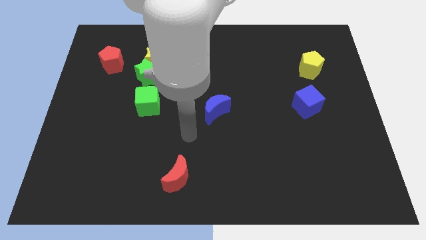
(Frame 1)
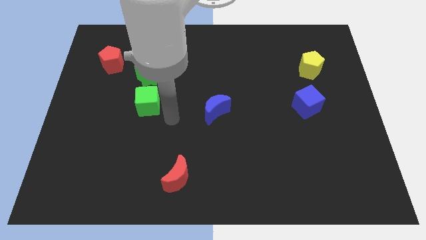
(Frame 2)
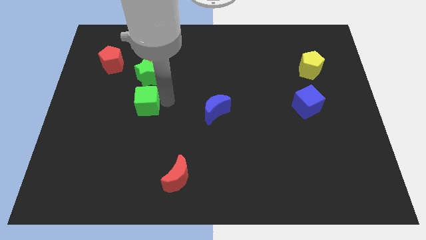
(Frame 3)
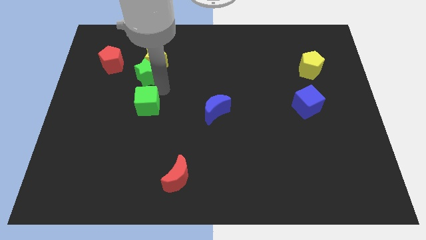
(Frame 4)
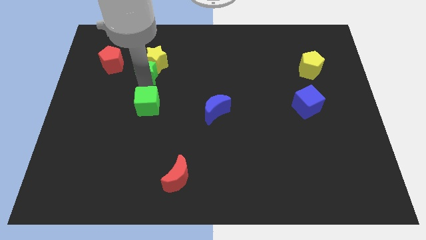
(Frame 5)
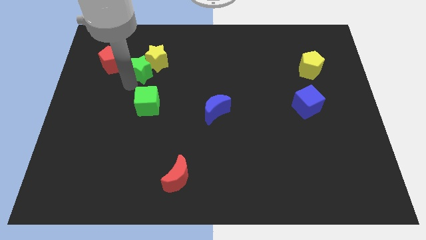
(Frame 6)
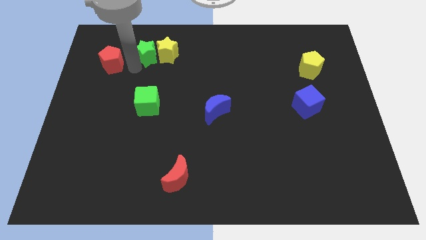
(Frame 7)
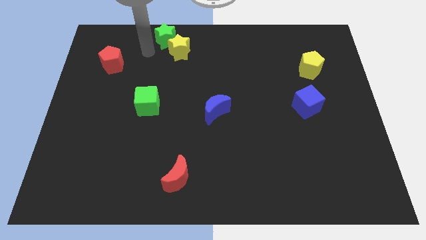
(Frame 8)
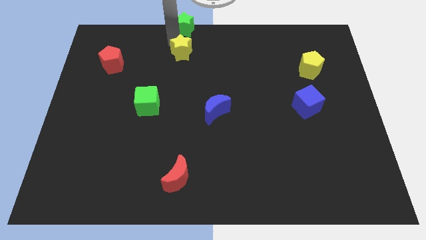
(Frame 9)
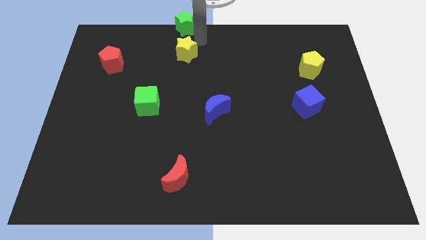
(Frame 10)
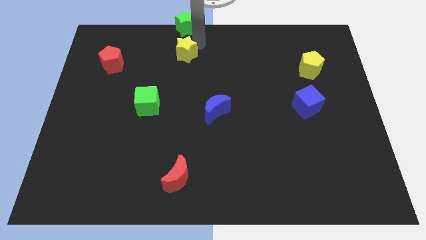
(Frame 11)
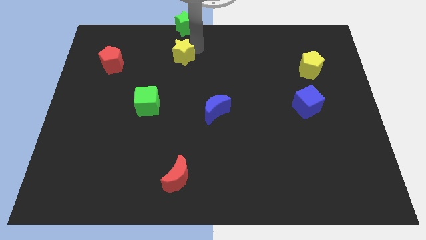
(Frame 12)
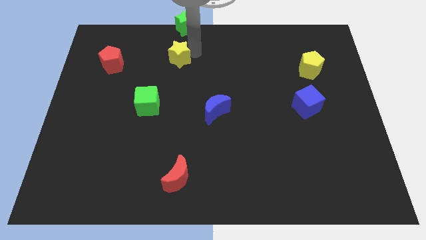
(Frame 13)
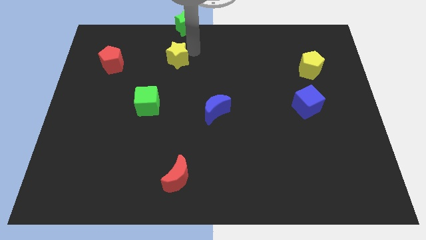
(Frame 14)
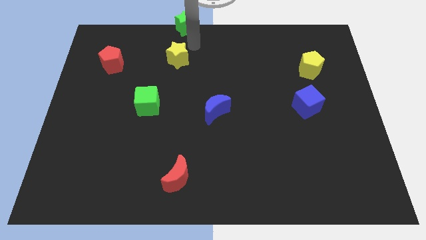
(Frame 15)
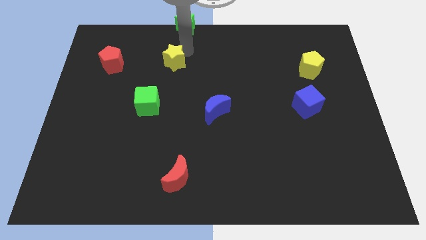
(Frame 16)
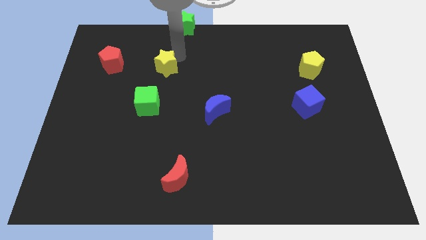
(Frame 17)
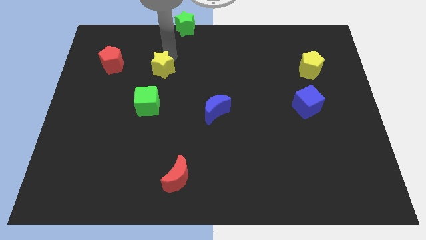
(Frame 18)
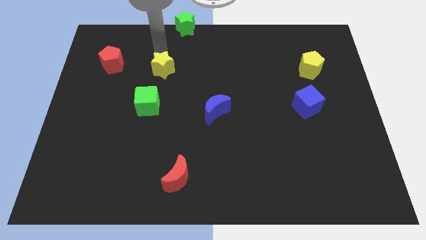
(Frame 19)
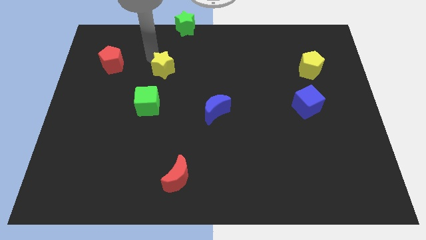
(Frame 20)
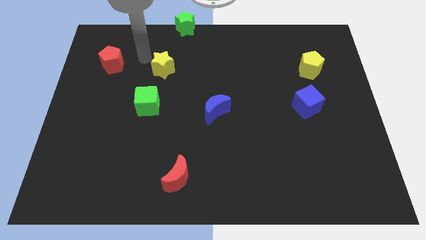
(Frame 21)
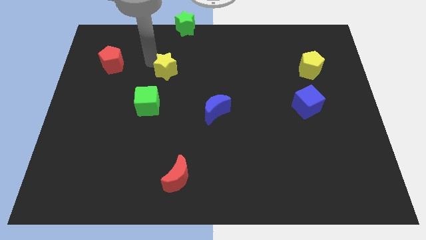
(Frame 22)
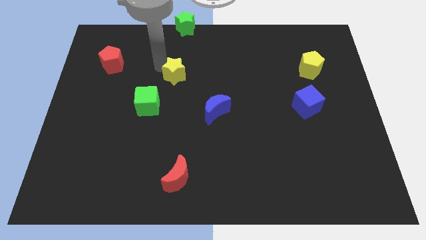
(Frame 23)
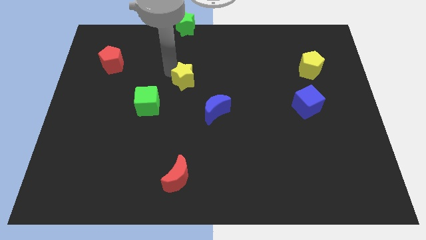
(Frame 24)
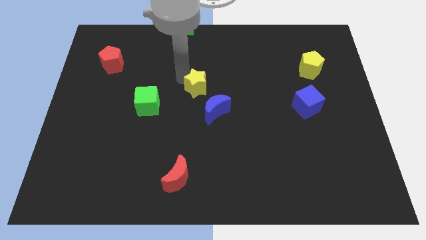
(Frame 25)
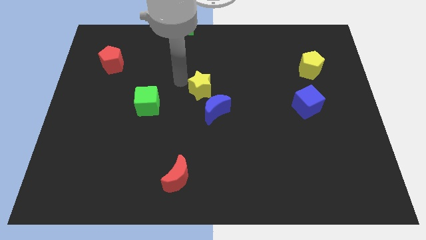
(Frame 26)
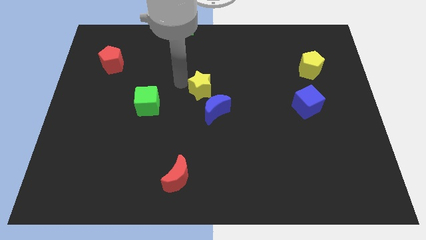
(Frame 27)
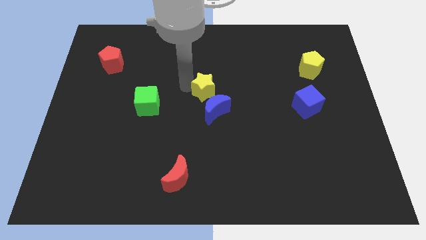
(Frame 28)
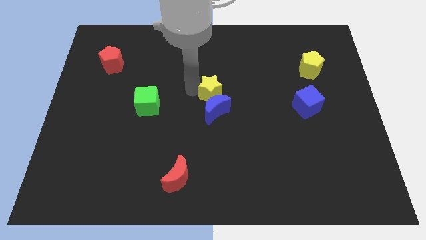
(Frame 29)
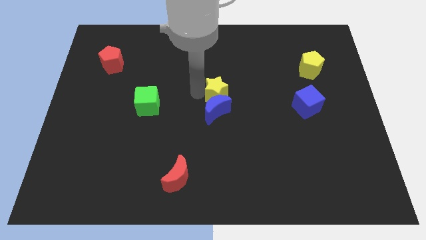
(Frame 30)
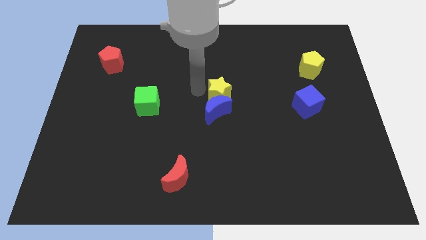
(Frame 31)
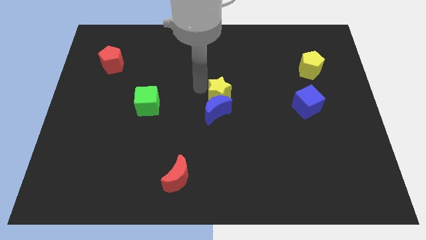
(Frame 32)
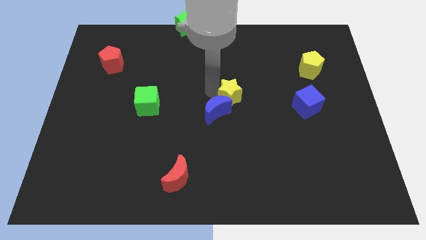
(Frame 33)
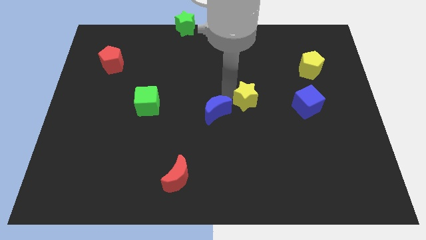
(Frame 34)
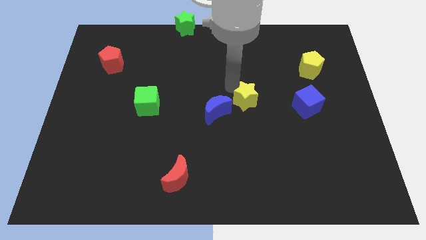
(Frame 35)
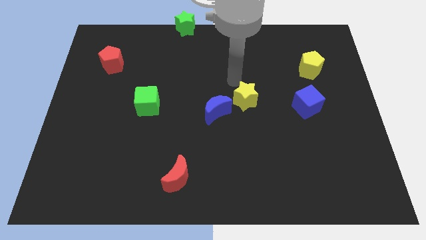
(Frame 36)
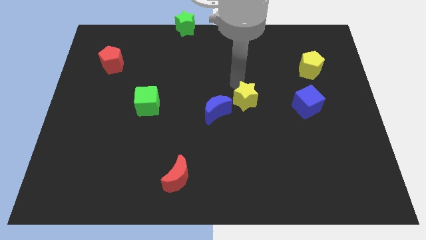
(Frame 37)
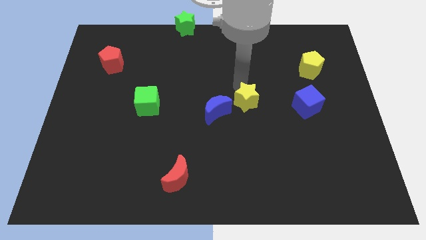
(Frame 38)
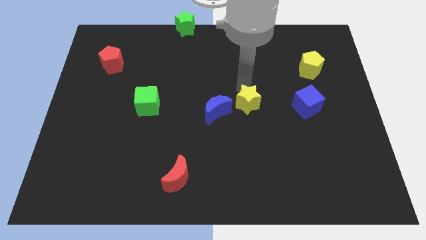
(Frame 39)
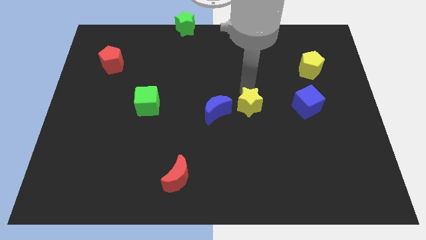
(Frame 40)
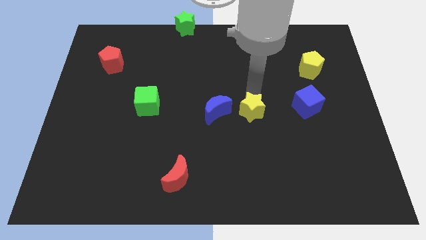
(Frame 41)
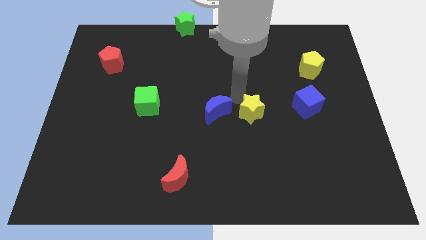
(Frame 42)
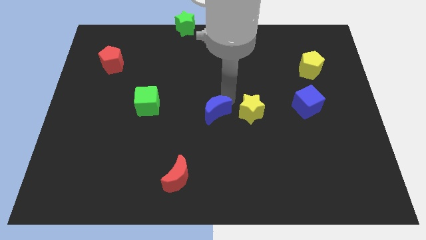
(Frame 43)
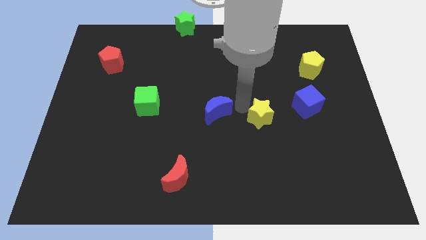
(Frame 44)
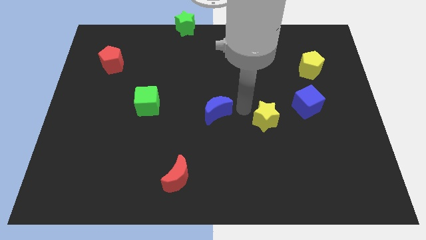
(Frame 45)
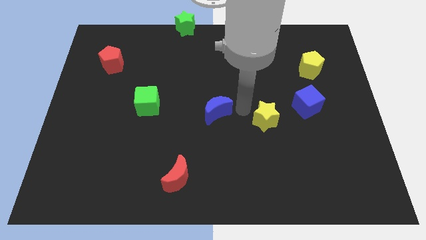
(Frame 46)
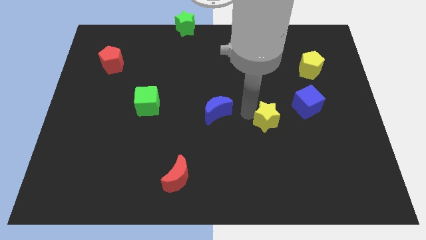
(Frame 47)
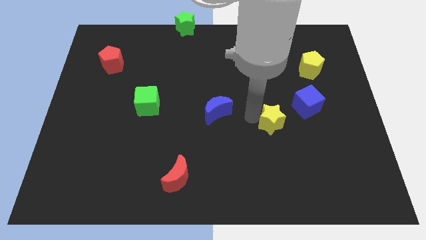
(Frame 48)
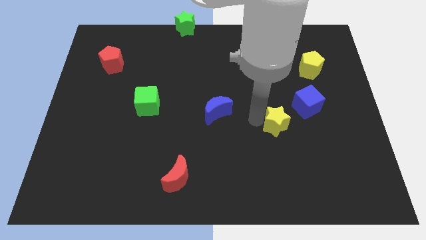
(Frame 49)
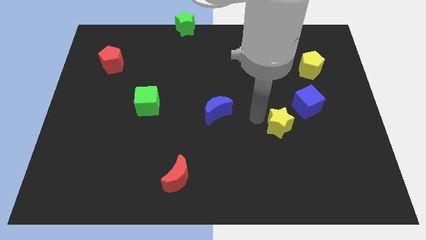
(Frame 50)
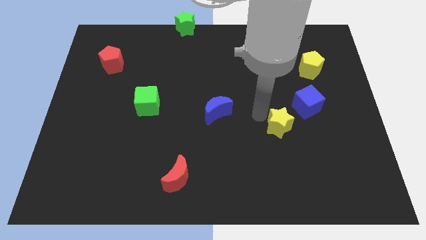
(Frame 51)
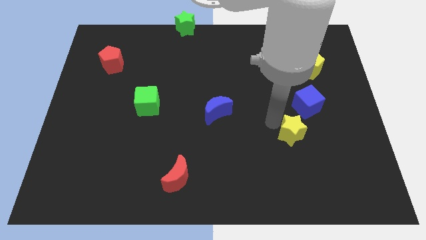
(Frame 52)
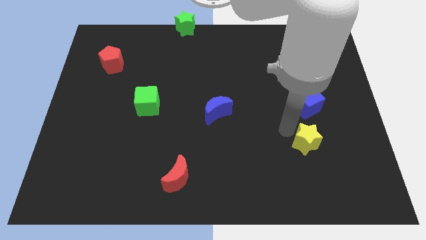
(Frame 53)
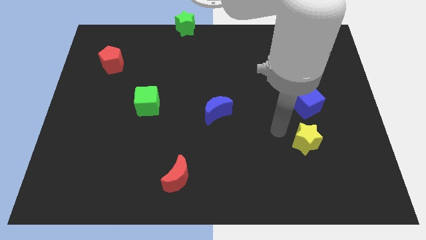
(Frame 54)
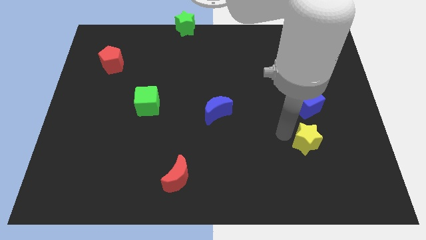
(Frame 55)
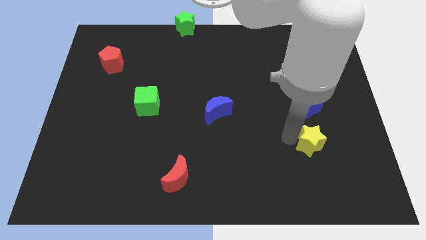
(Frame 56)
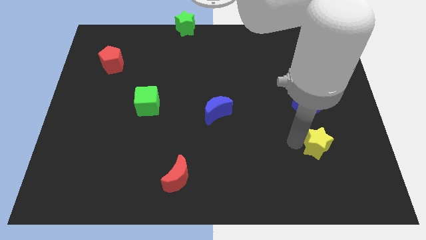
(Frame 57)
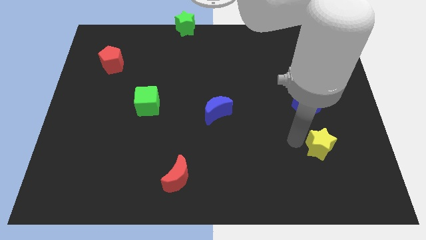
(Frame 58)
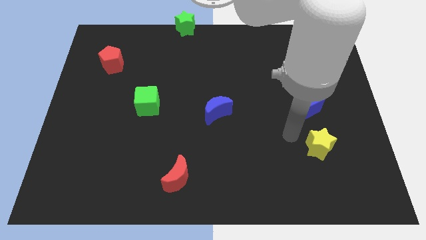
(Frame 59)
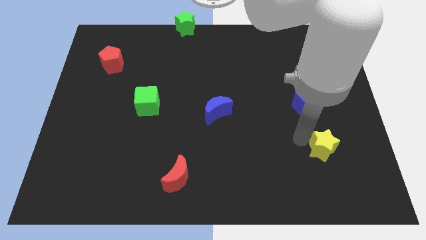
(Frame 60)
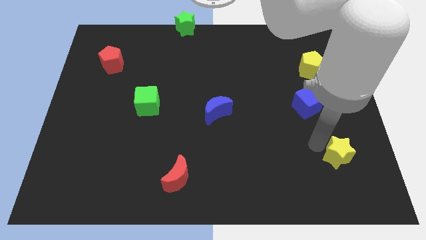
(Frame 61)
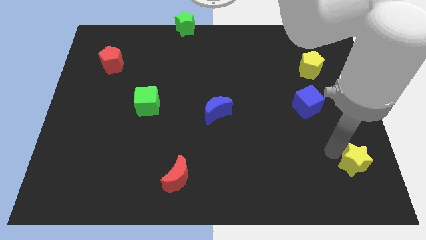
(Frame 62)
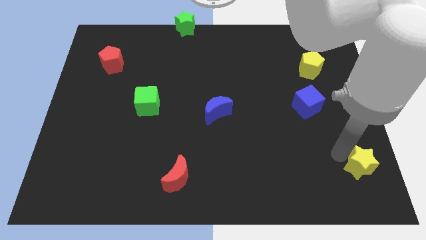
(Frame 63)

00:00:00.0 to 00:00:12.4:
put the yellow star to the bottom right of the board

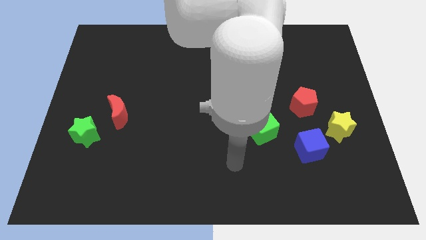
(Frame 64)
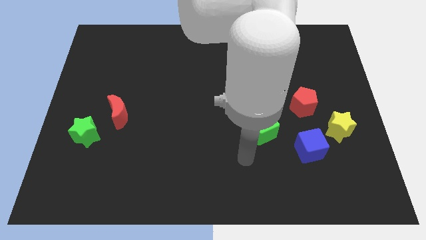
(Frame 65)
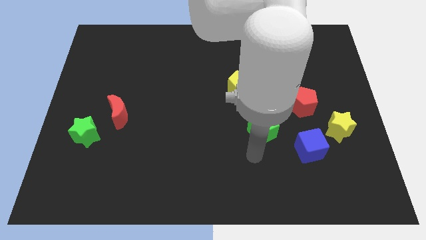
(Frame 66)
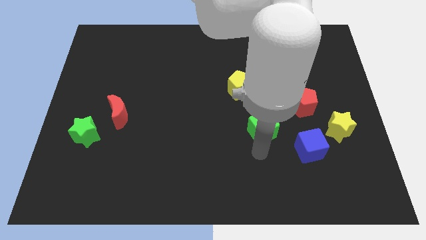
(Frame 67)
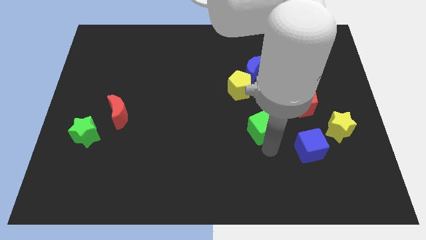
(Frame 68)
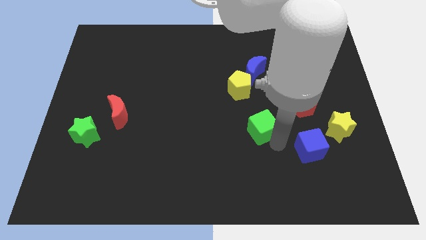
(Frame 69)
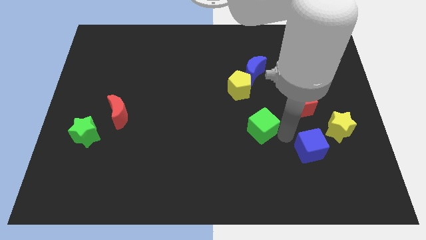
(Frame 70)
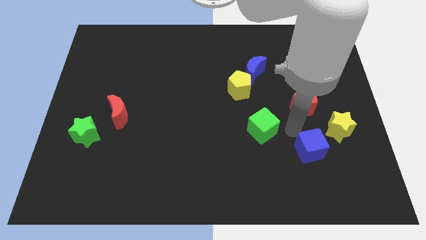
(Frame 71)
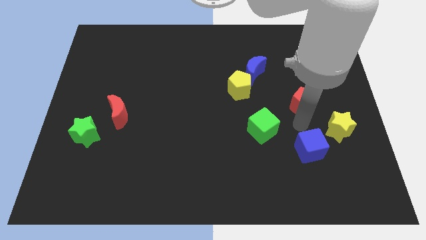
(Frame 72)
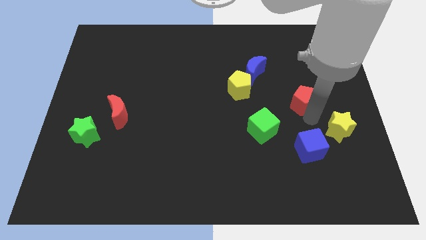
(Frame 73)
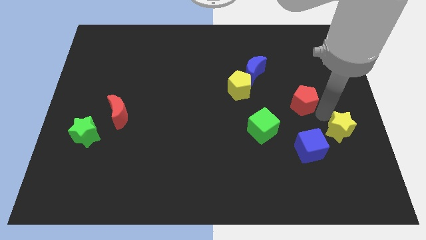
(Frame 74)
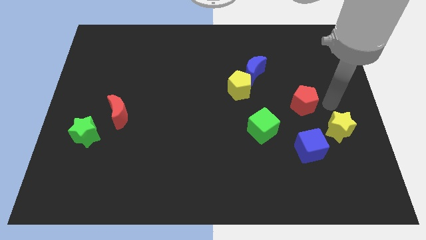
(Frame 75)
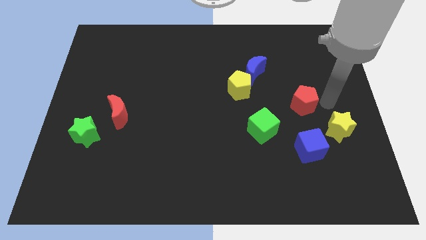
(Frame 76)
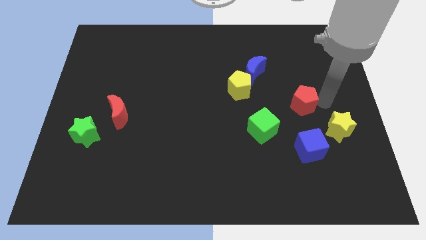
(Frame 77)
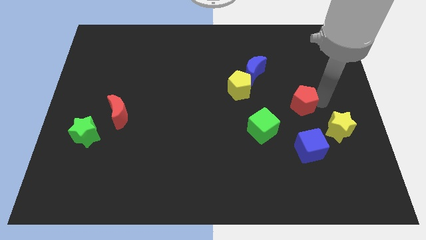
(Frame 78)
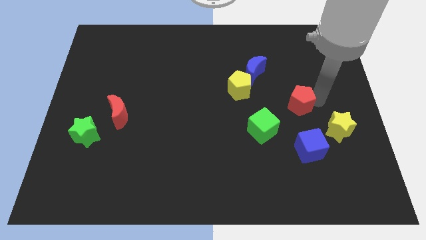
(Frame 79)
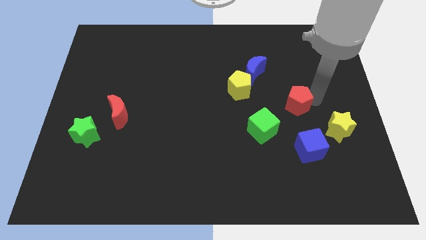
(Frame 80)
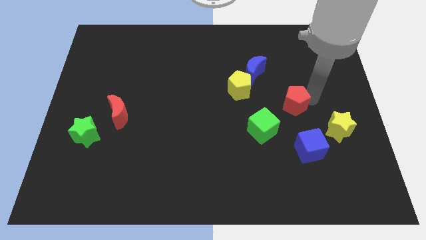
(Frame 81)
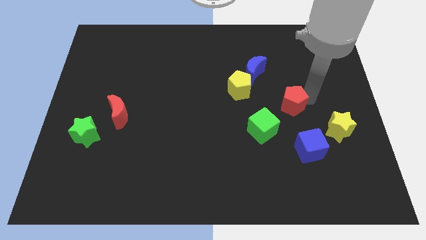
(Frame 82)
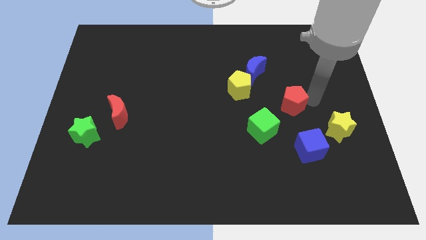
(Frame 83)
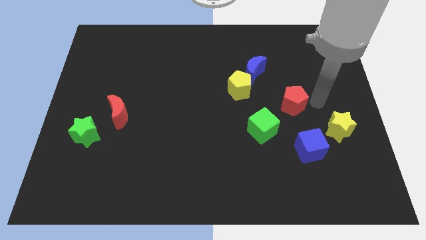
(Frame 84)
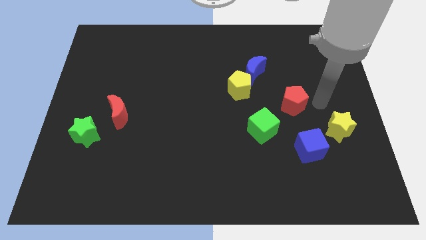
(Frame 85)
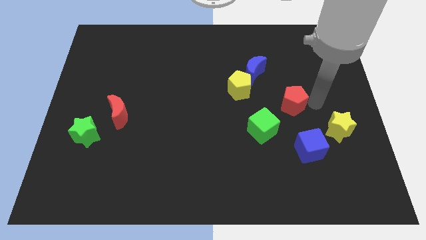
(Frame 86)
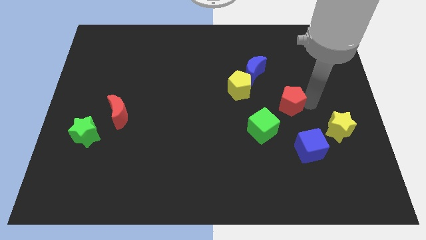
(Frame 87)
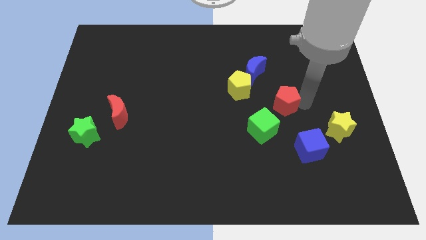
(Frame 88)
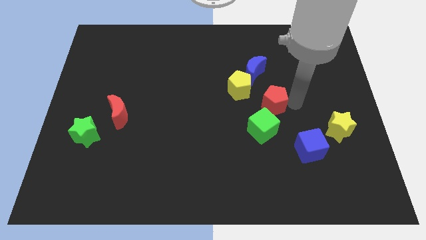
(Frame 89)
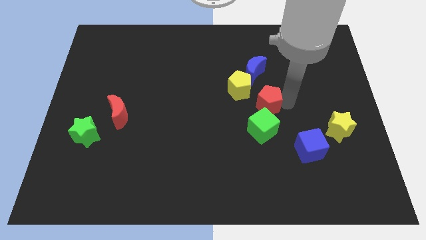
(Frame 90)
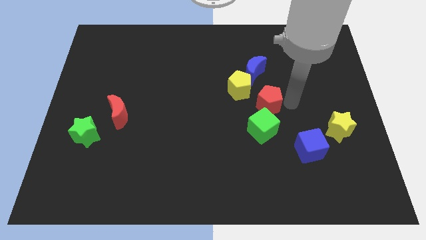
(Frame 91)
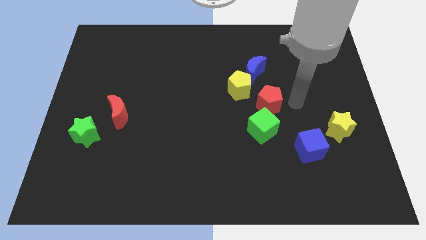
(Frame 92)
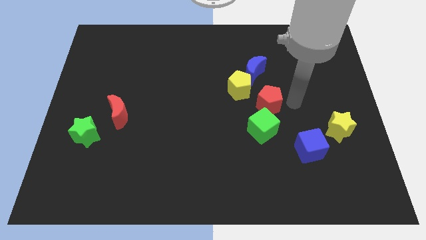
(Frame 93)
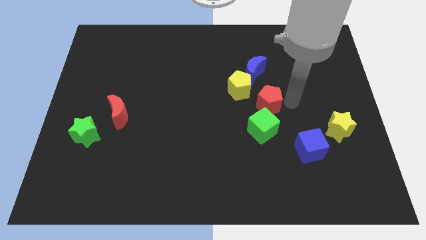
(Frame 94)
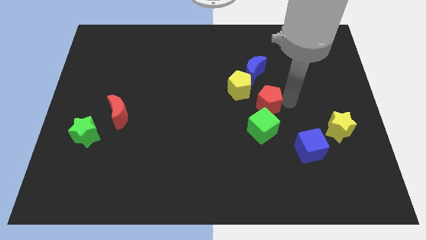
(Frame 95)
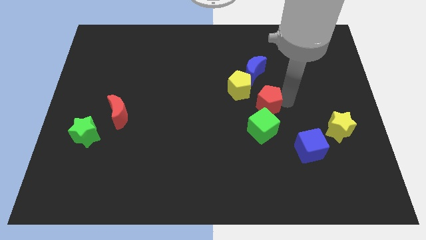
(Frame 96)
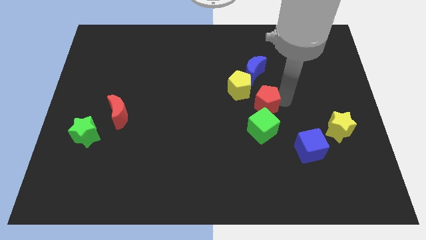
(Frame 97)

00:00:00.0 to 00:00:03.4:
slide the red pentagon to the middle
